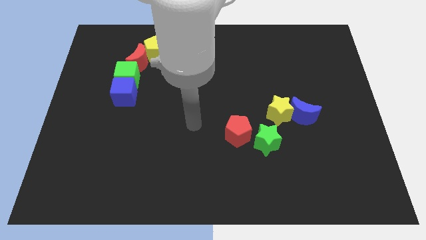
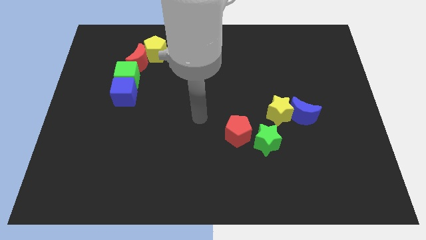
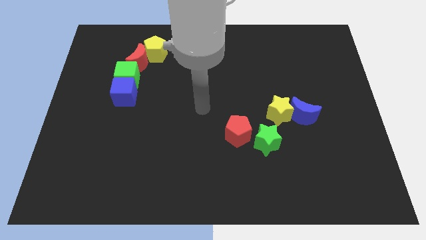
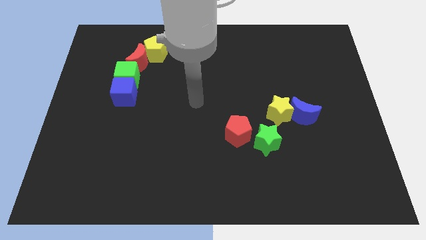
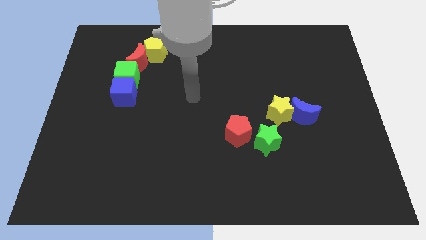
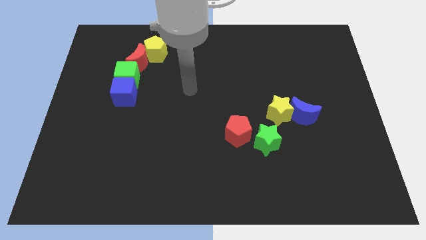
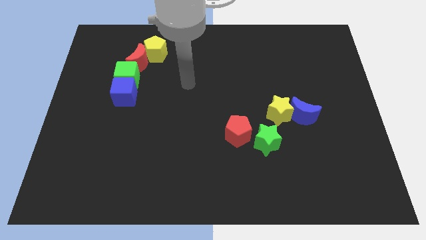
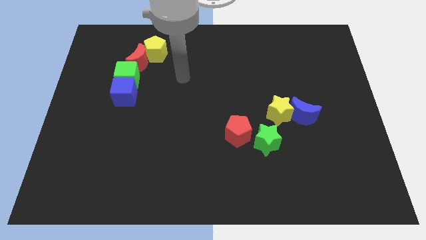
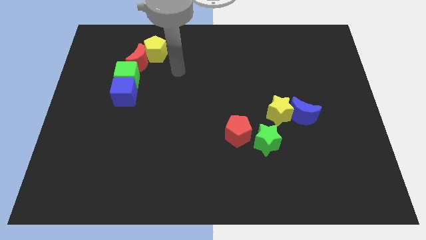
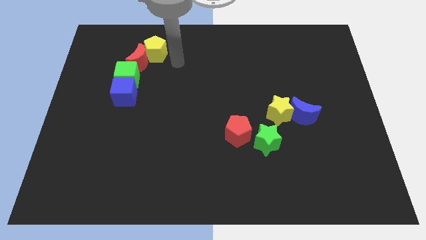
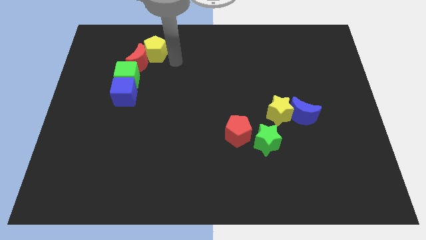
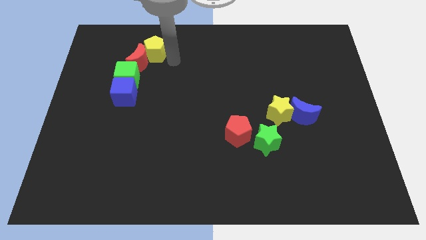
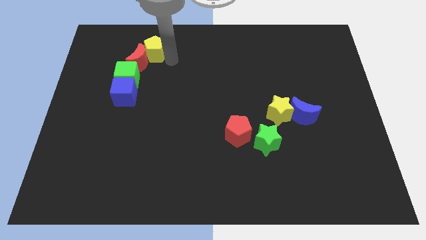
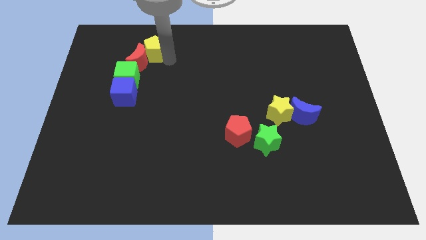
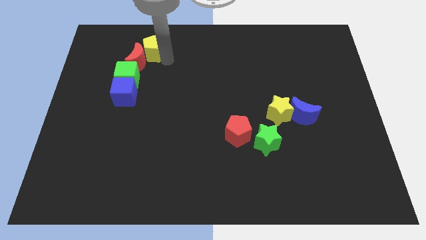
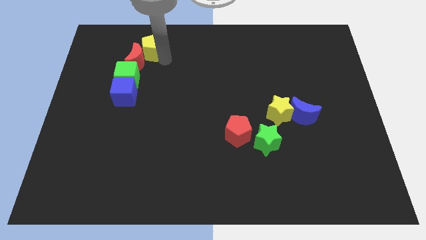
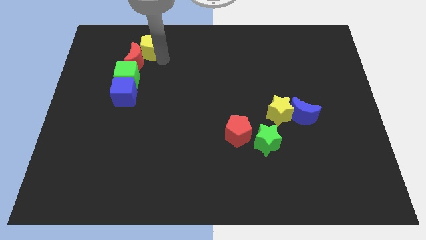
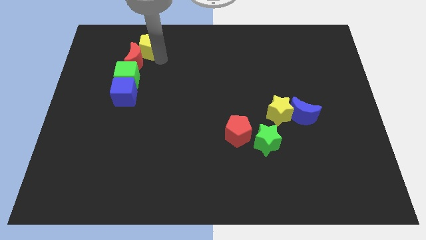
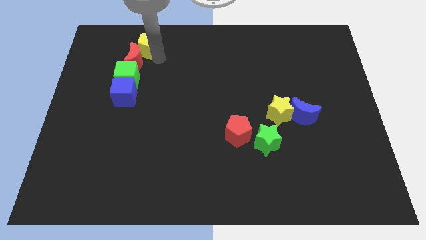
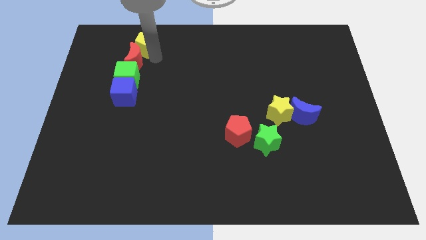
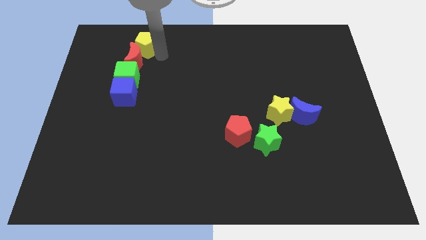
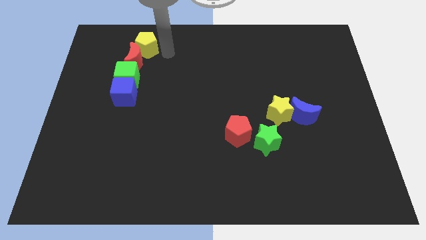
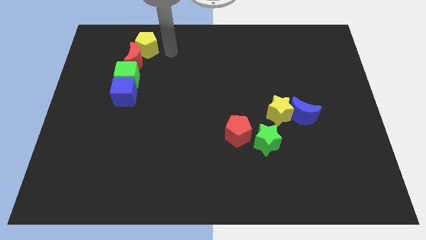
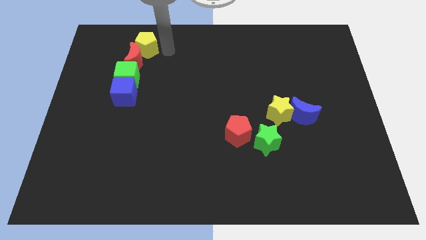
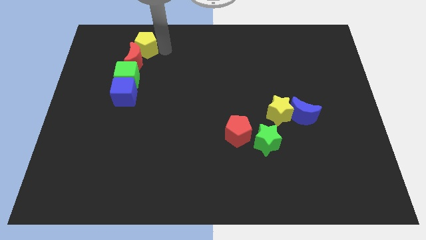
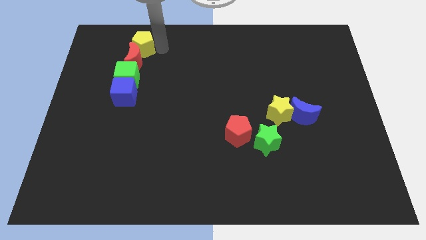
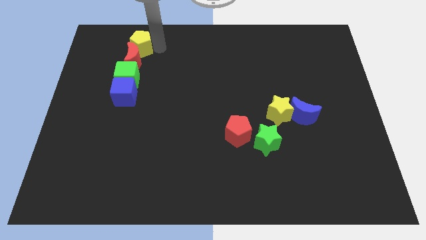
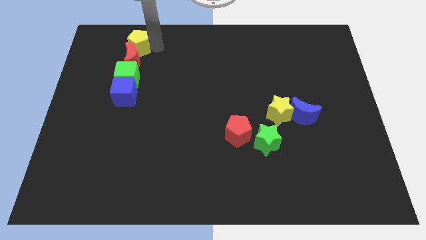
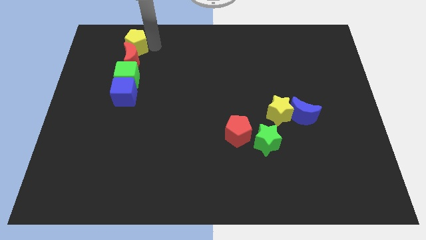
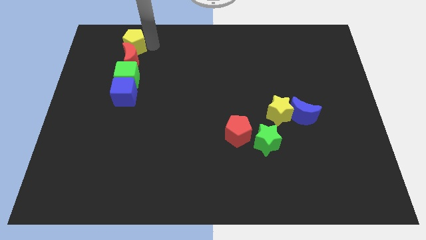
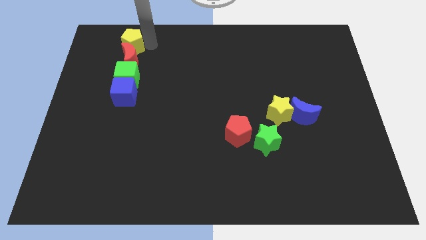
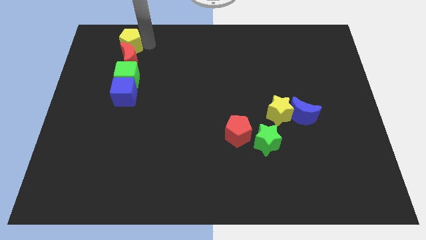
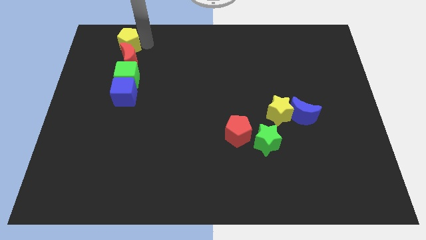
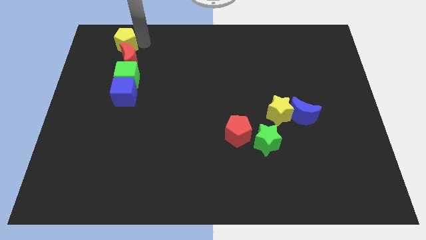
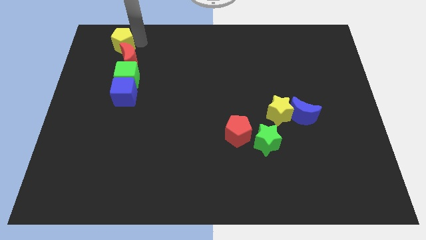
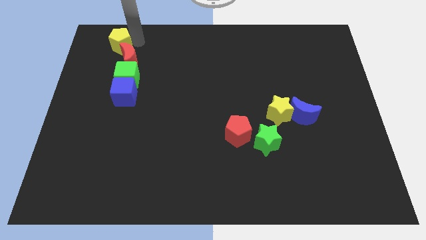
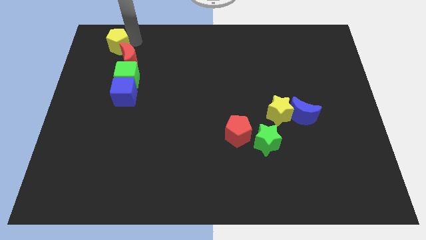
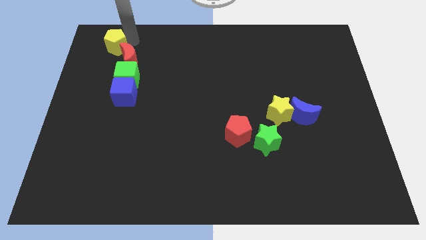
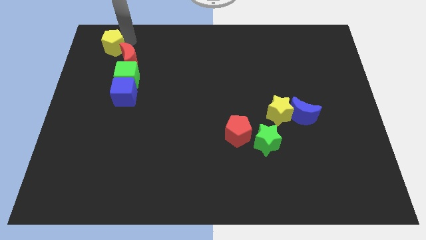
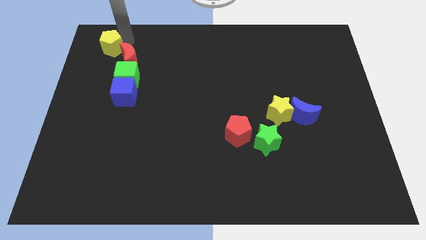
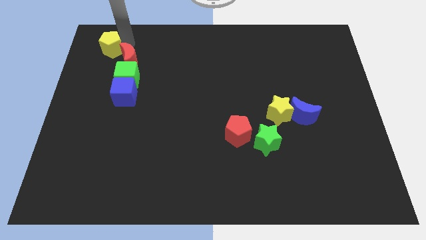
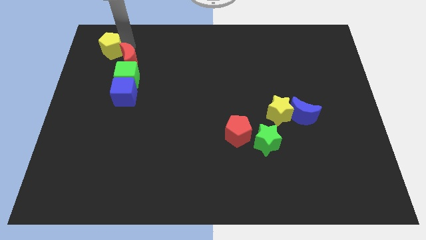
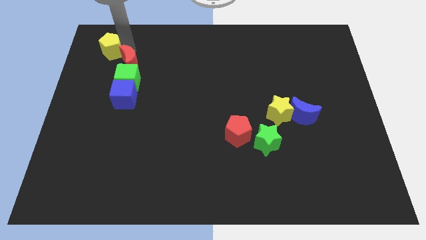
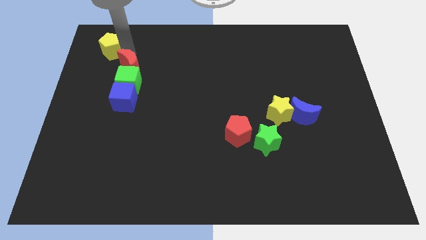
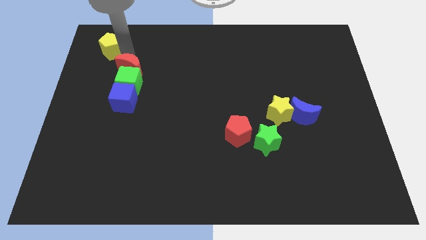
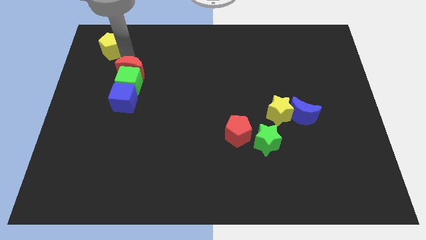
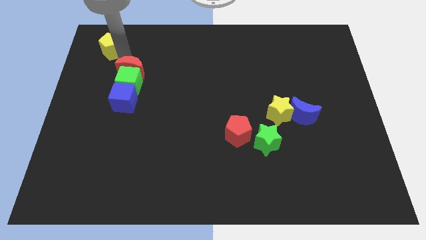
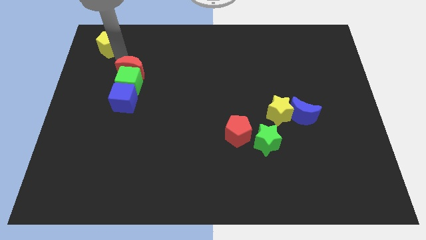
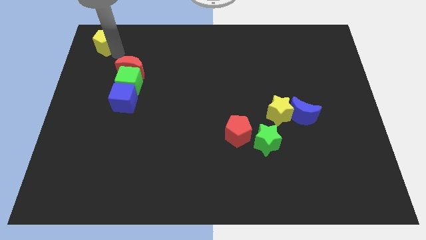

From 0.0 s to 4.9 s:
move the yellow pentagon to the top left of the board

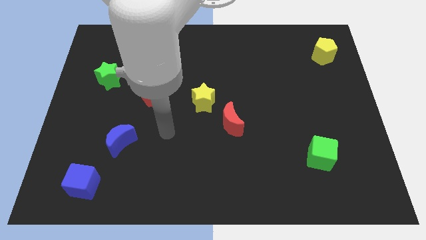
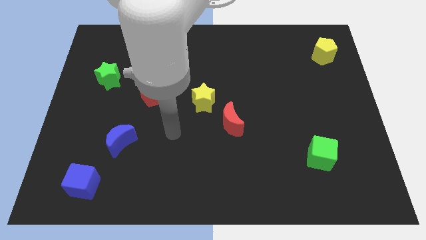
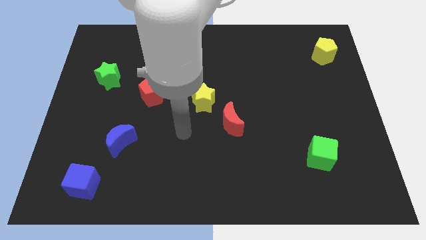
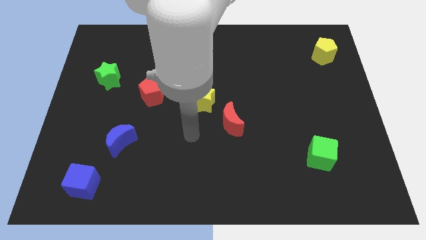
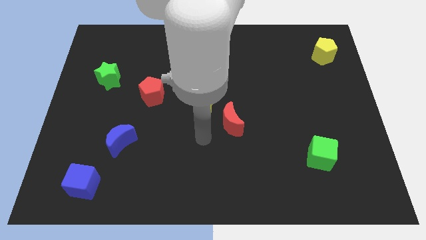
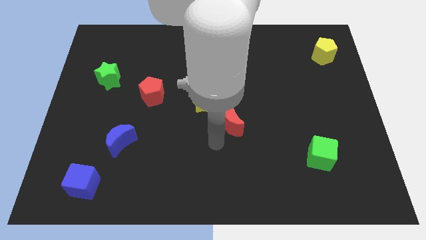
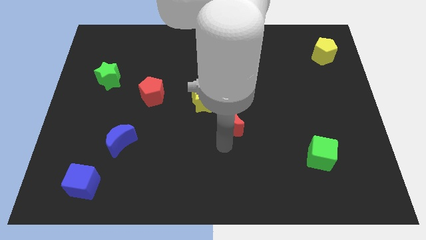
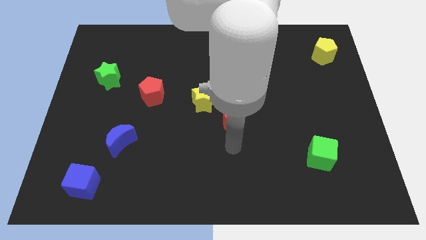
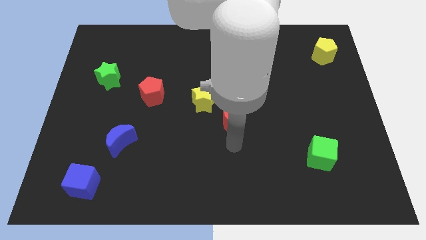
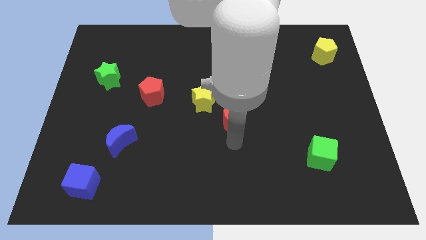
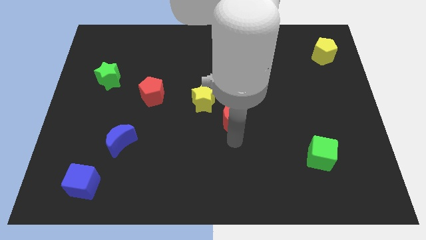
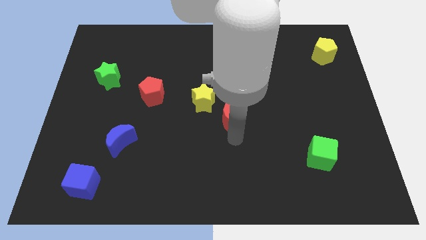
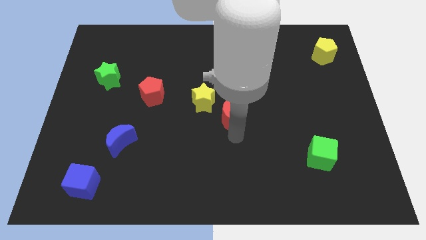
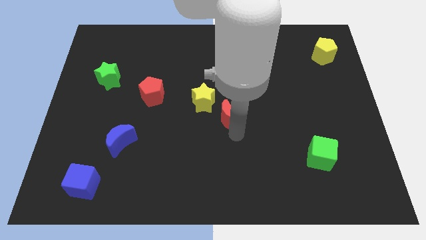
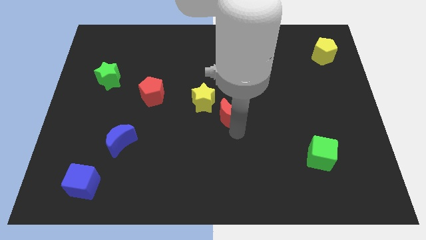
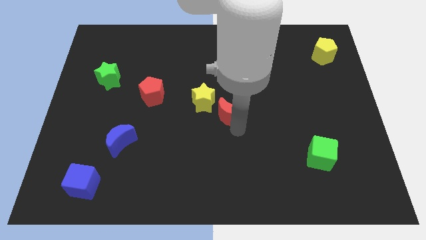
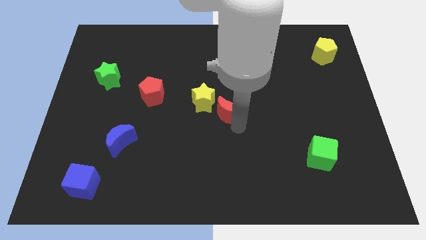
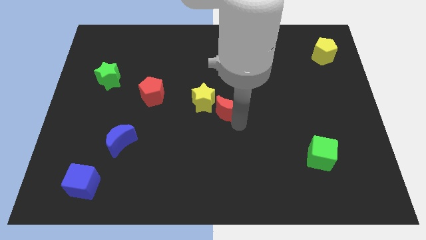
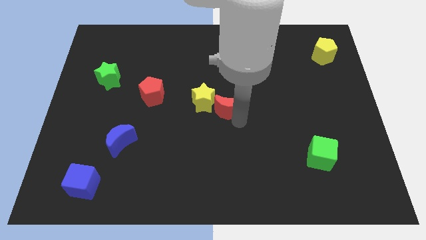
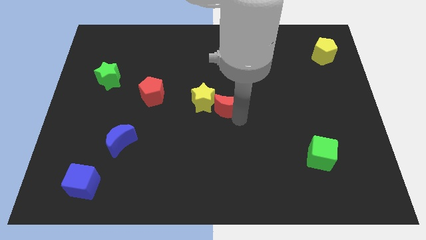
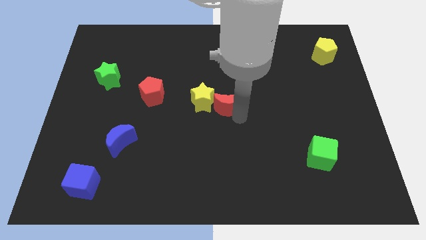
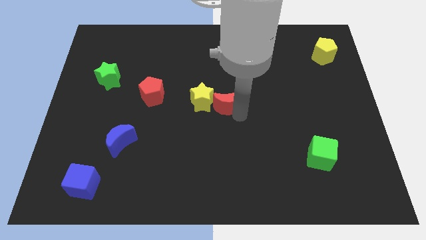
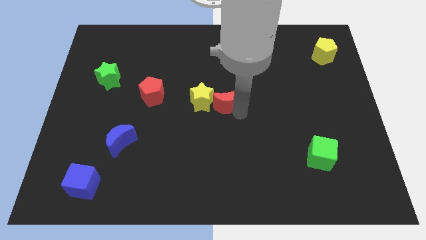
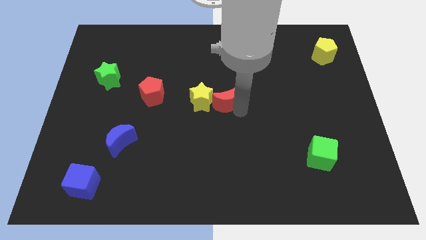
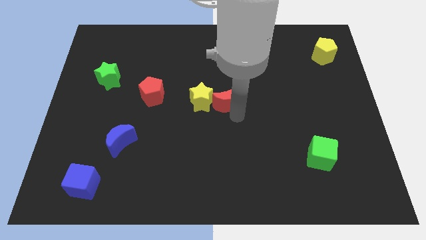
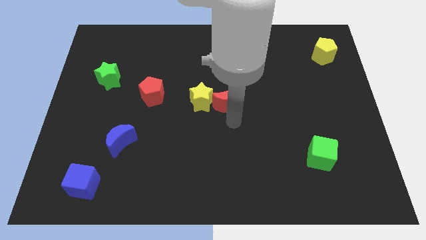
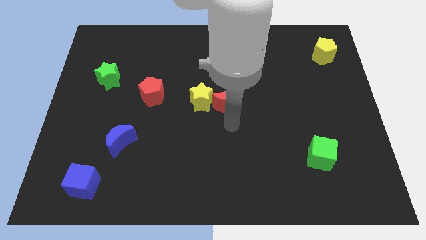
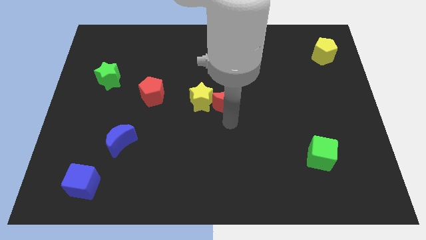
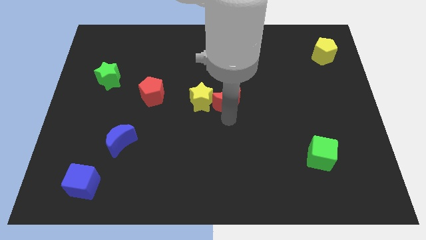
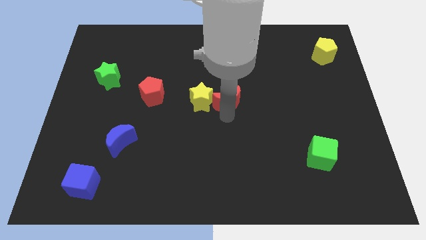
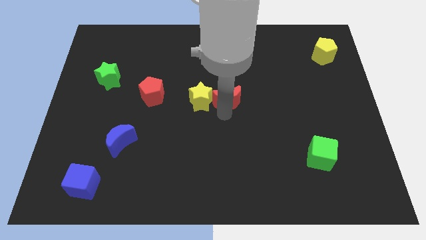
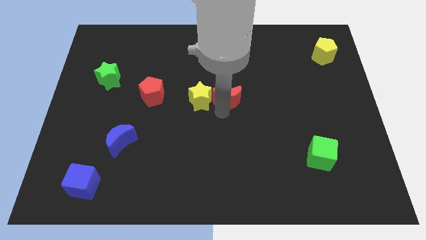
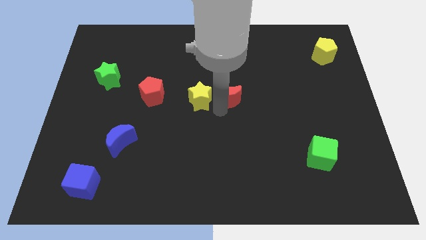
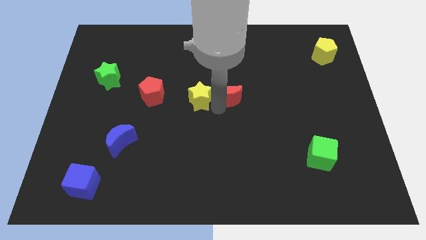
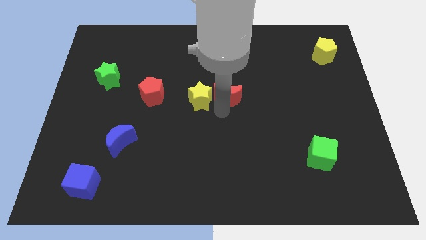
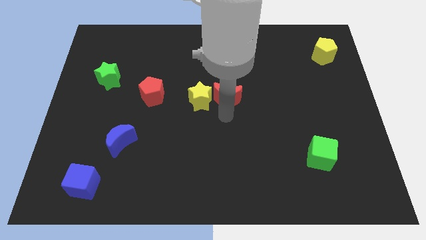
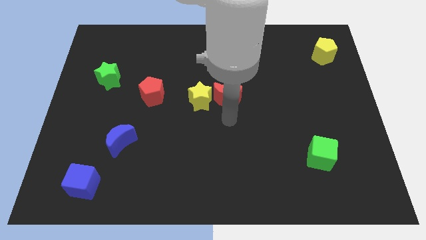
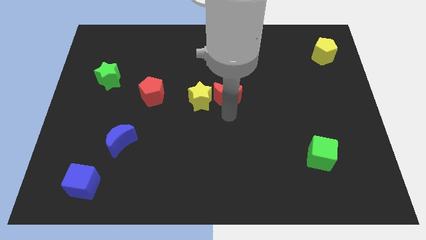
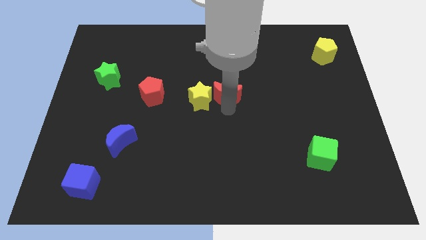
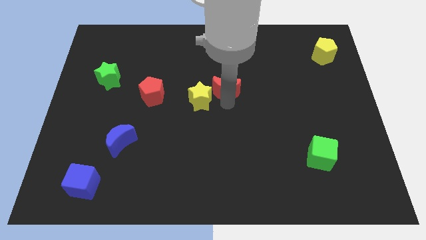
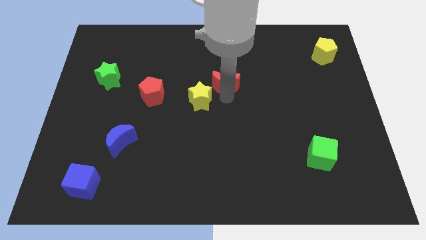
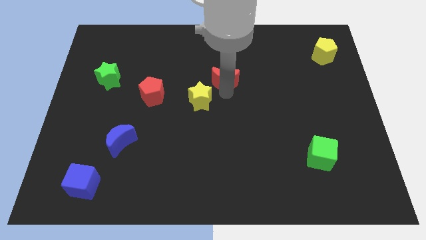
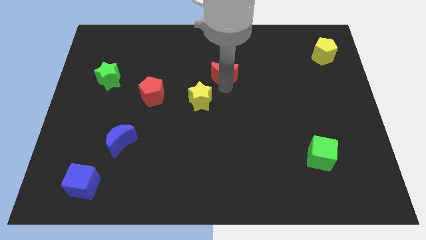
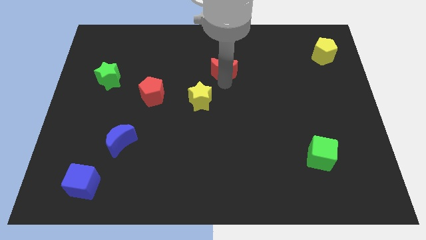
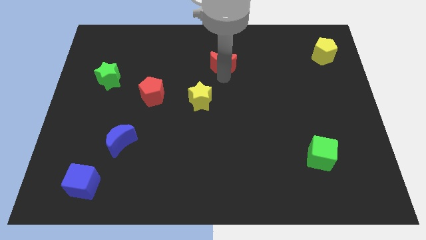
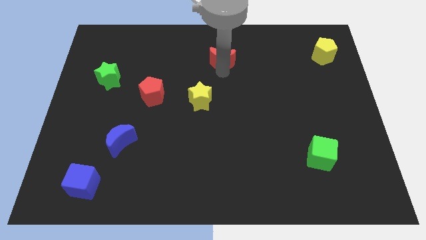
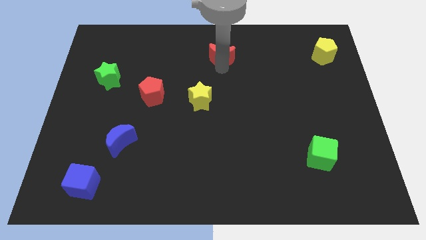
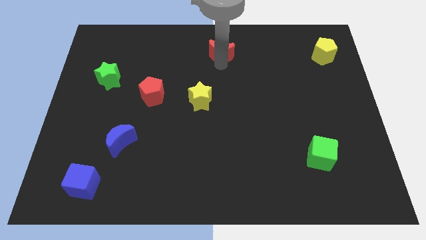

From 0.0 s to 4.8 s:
push the red moon to the top side
